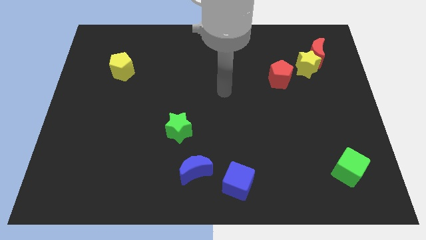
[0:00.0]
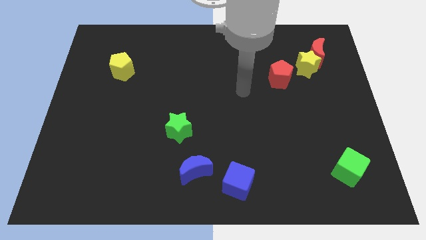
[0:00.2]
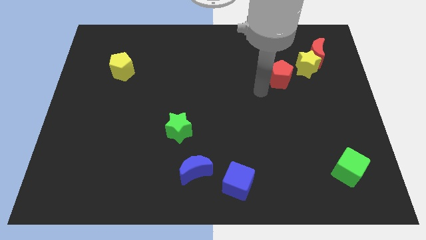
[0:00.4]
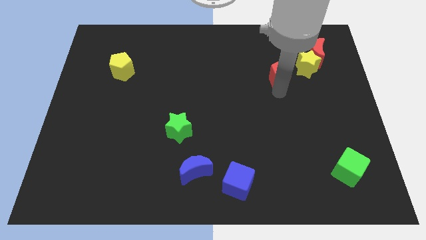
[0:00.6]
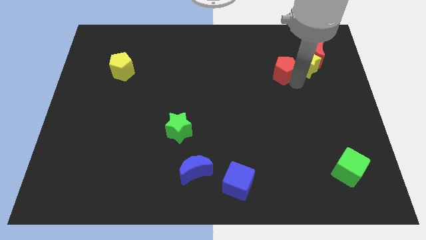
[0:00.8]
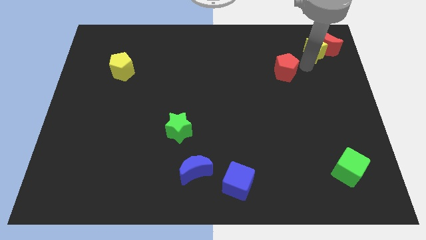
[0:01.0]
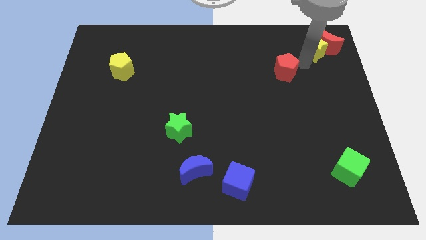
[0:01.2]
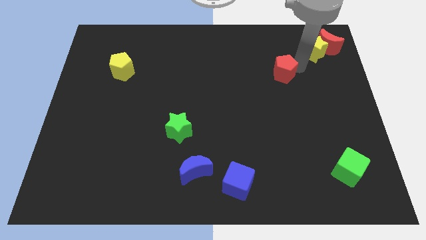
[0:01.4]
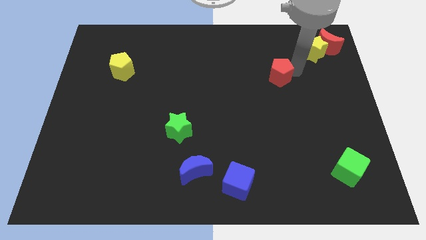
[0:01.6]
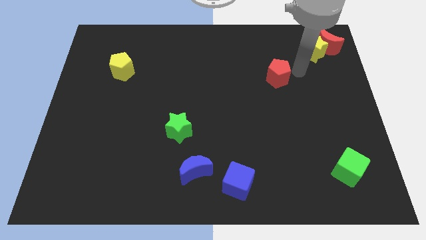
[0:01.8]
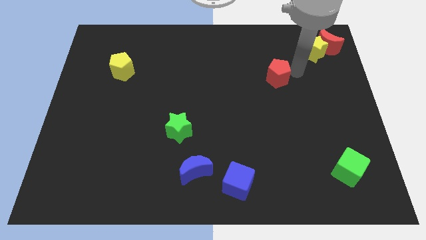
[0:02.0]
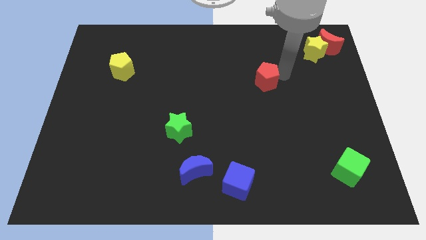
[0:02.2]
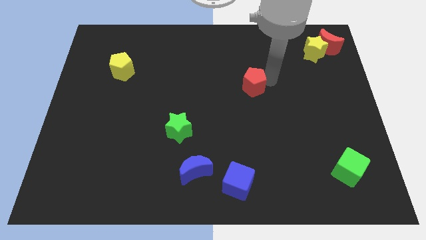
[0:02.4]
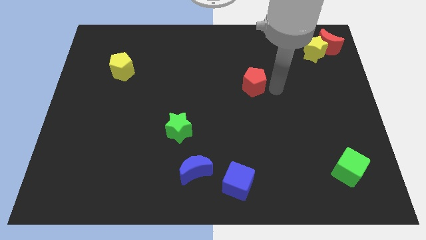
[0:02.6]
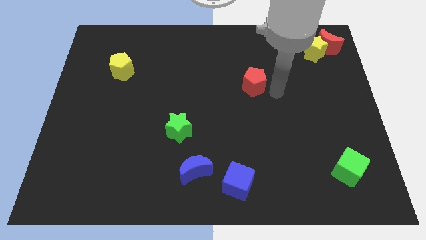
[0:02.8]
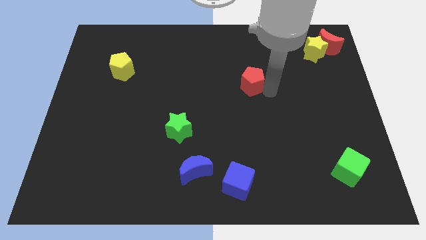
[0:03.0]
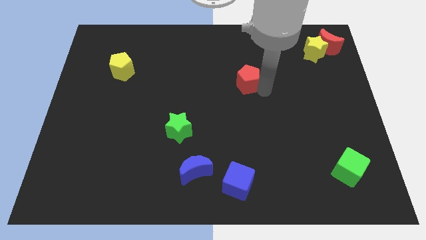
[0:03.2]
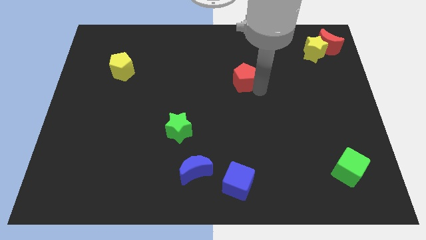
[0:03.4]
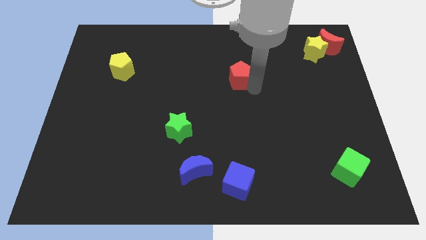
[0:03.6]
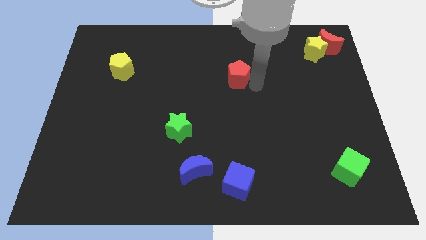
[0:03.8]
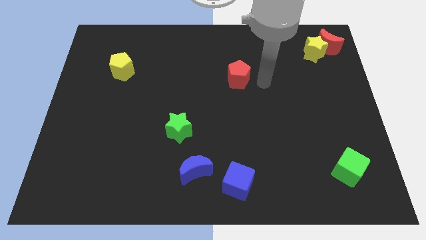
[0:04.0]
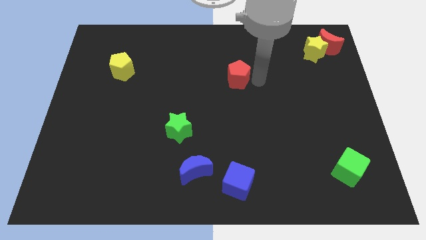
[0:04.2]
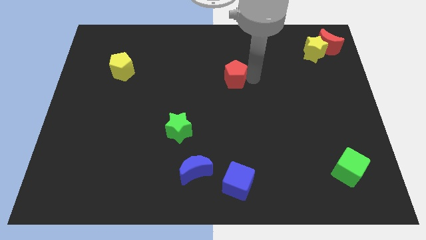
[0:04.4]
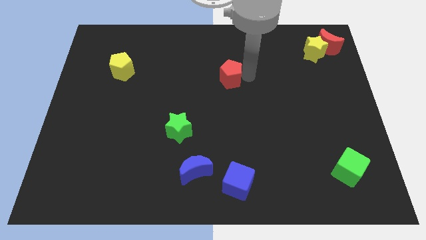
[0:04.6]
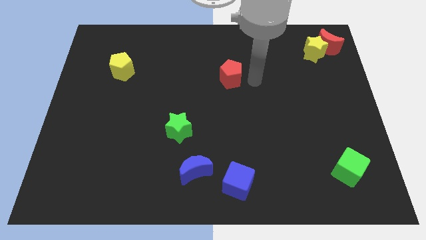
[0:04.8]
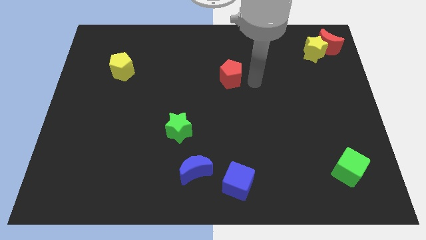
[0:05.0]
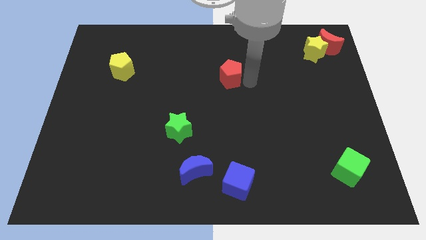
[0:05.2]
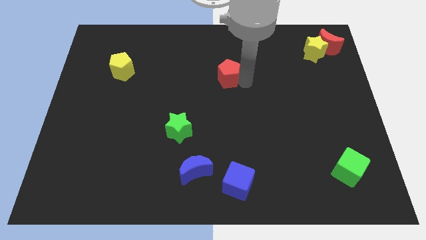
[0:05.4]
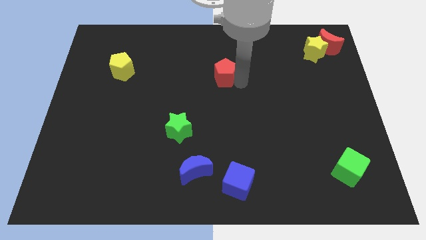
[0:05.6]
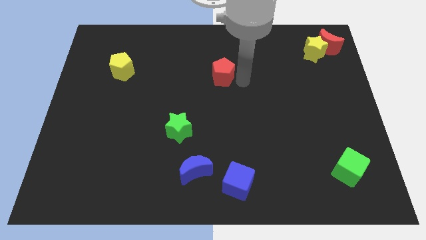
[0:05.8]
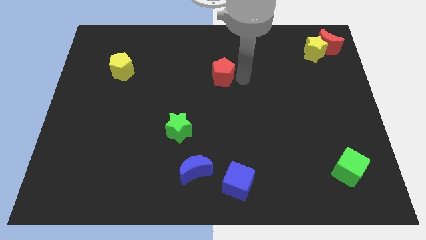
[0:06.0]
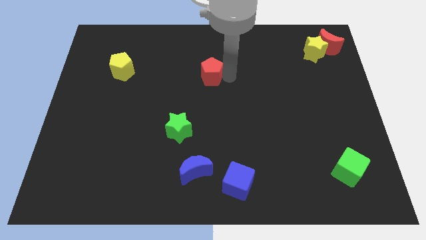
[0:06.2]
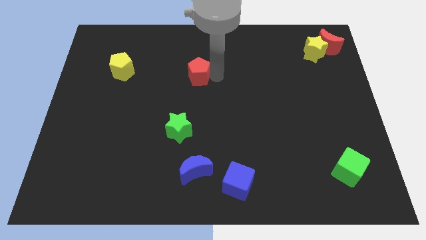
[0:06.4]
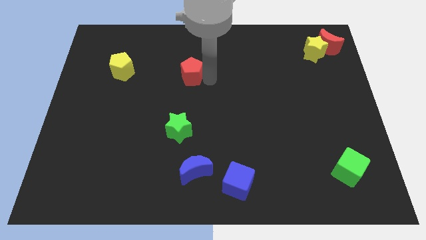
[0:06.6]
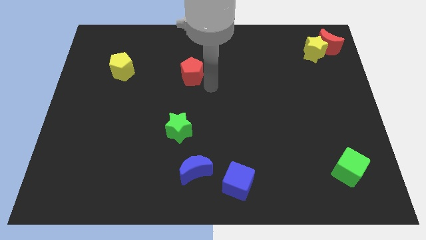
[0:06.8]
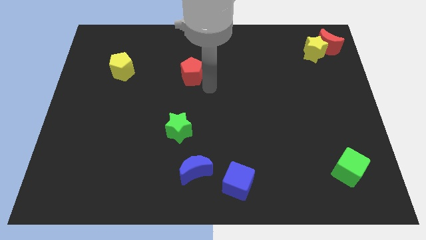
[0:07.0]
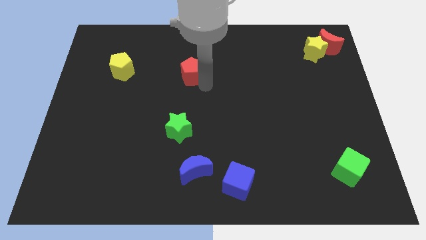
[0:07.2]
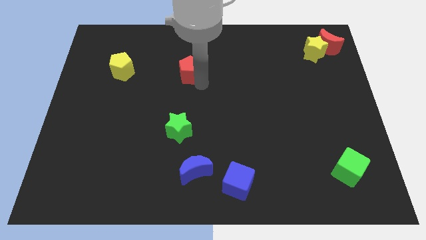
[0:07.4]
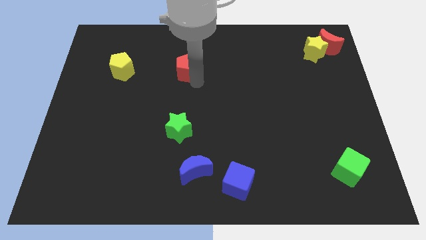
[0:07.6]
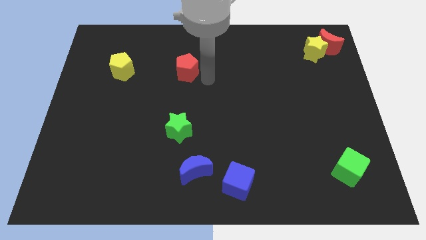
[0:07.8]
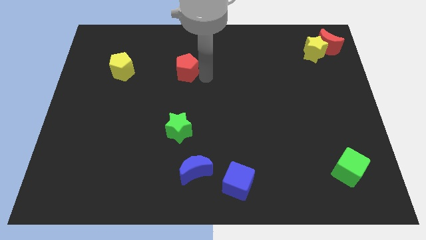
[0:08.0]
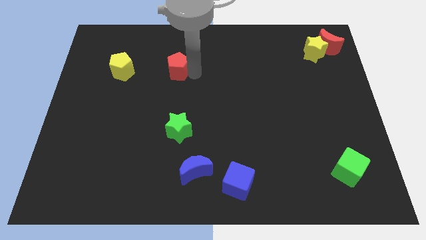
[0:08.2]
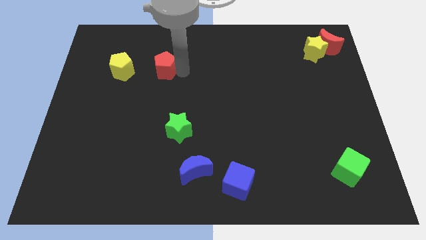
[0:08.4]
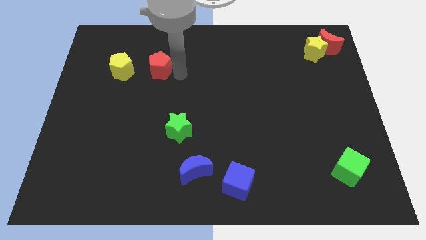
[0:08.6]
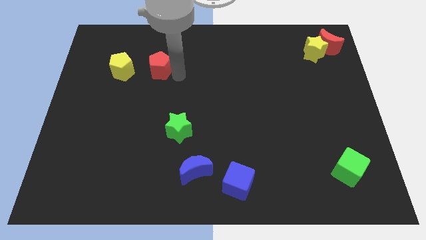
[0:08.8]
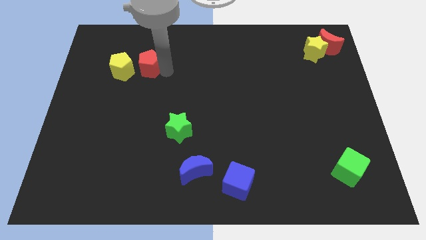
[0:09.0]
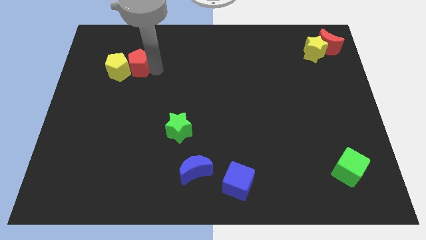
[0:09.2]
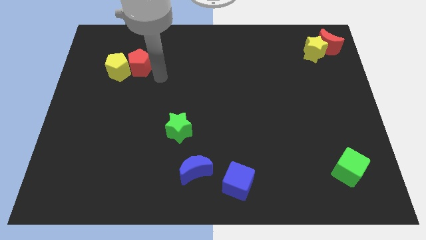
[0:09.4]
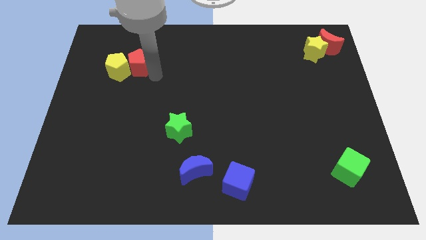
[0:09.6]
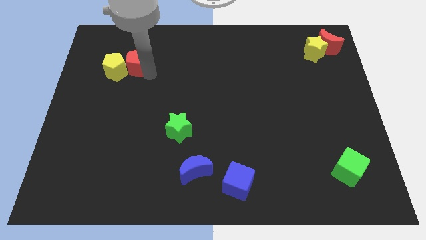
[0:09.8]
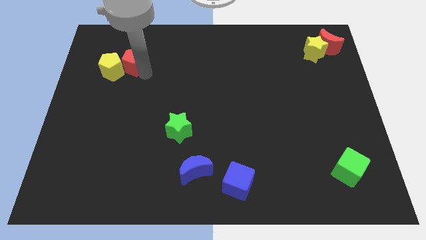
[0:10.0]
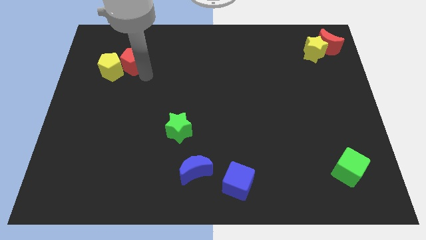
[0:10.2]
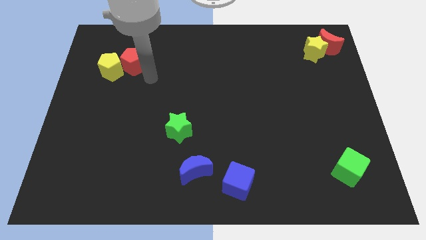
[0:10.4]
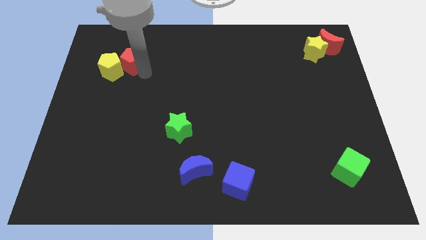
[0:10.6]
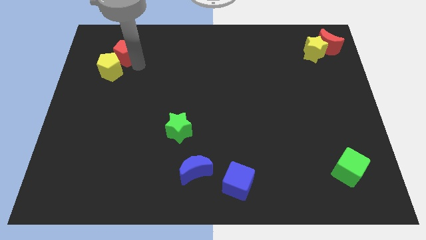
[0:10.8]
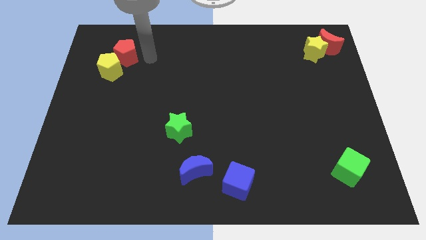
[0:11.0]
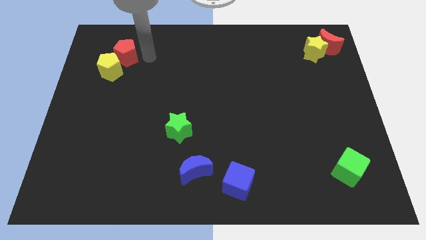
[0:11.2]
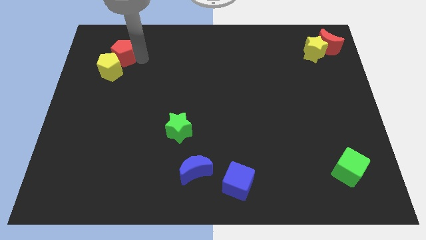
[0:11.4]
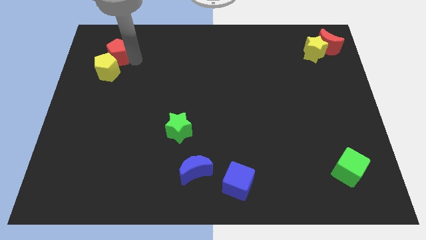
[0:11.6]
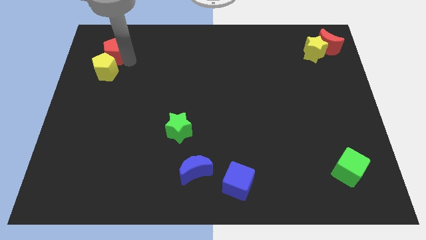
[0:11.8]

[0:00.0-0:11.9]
push the red pentagon to the top left side of the yellow pentagon

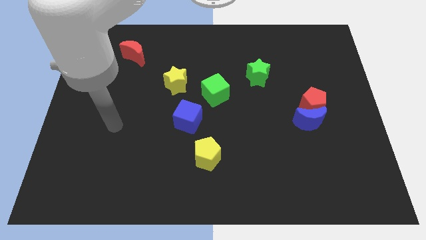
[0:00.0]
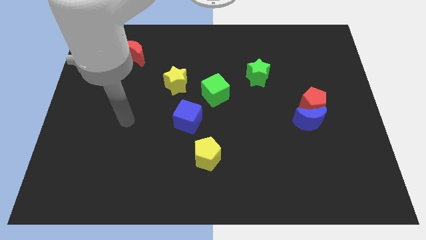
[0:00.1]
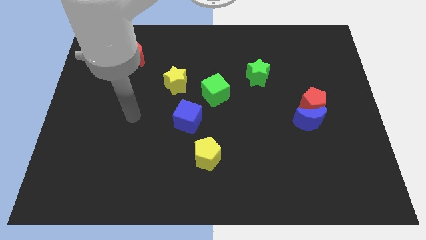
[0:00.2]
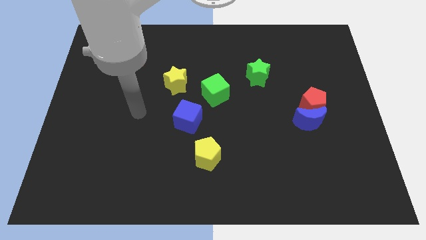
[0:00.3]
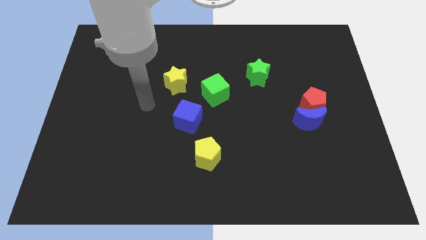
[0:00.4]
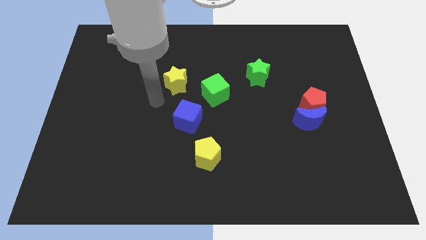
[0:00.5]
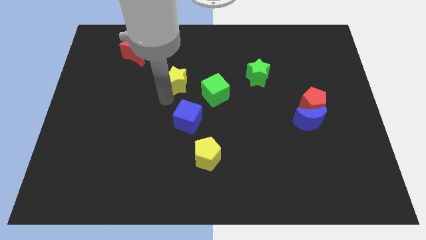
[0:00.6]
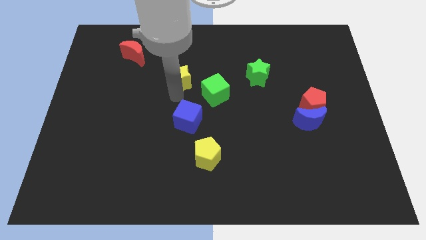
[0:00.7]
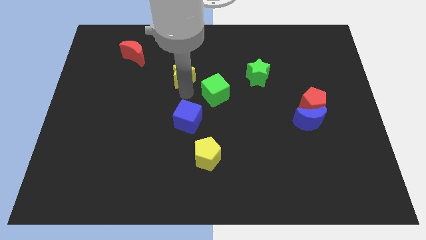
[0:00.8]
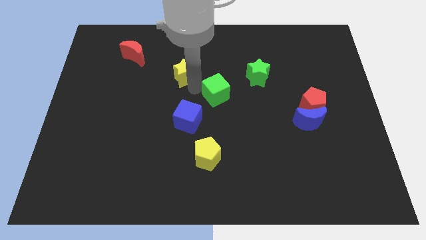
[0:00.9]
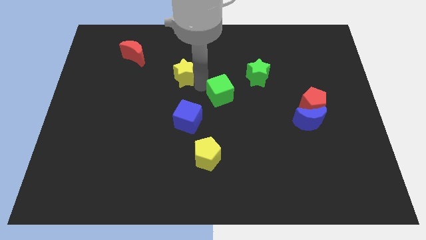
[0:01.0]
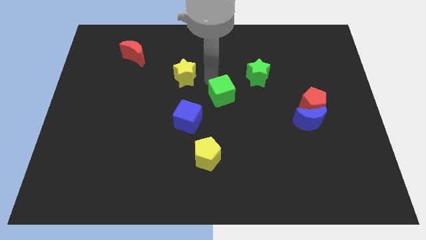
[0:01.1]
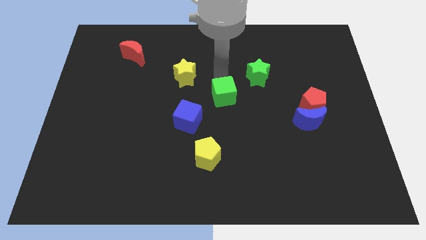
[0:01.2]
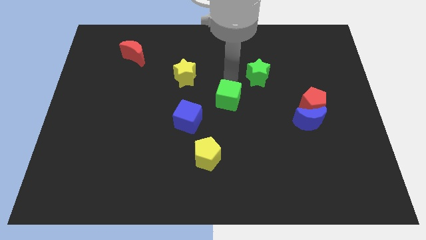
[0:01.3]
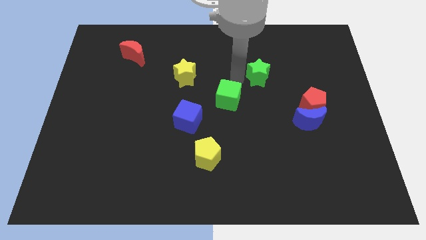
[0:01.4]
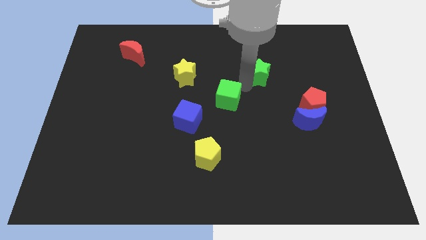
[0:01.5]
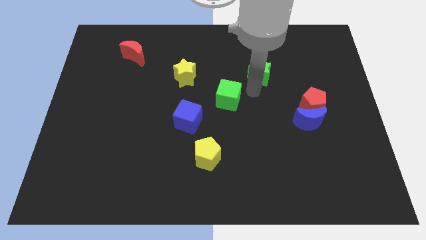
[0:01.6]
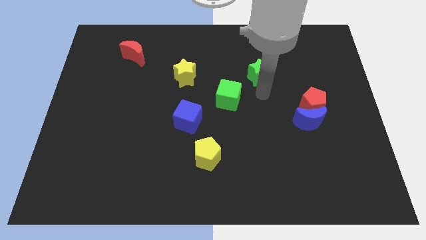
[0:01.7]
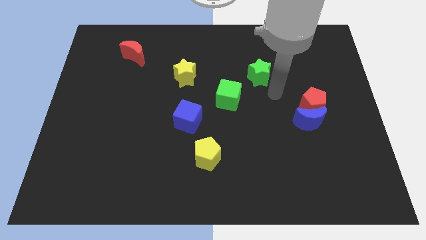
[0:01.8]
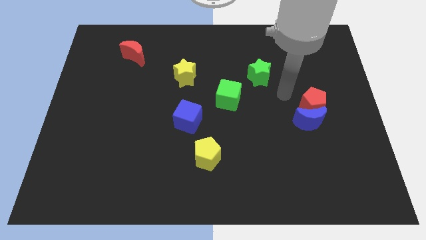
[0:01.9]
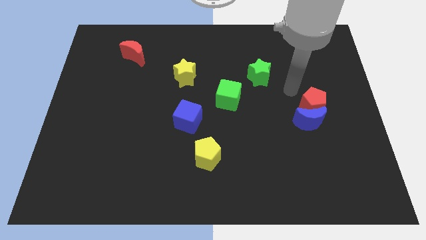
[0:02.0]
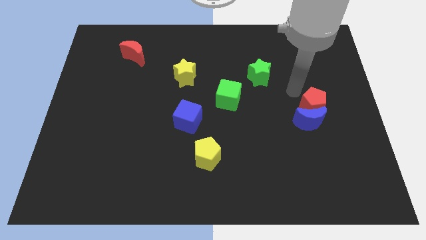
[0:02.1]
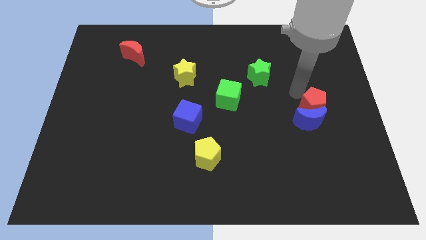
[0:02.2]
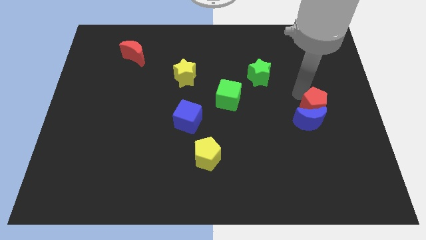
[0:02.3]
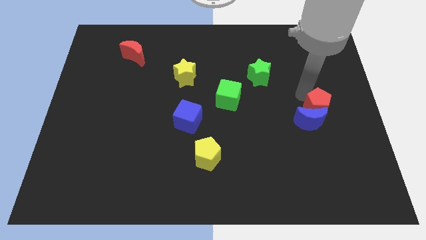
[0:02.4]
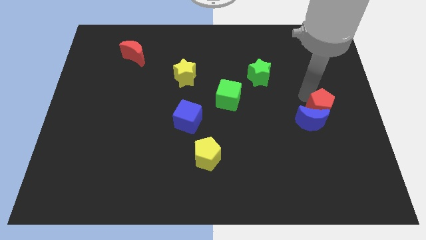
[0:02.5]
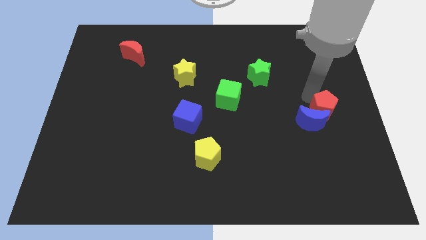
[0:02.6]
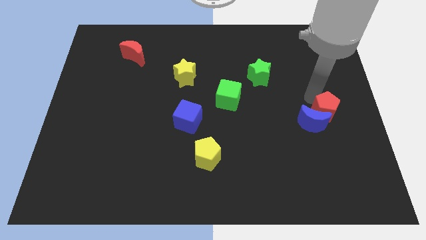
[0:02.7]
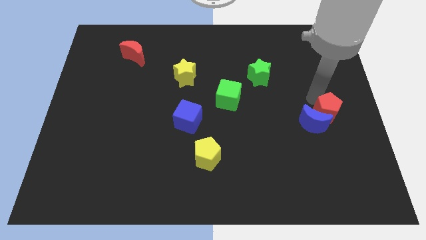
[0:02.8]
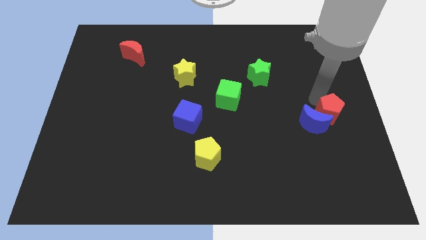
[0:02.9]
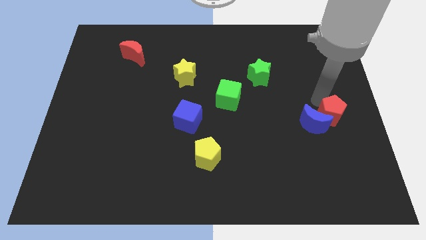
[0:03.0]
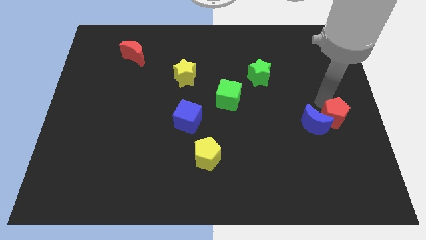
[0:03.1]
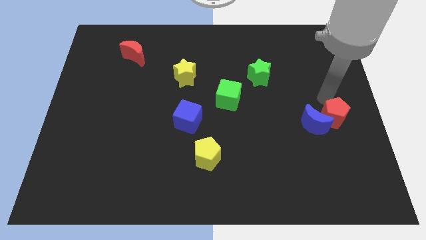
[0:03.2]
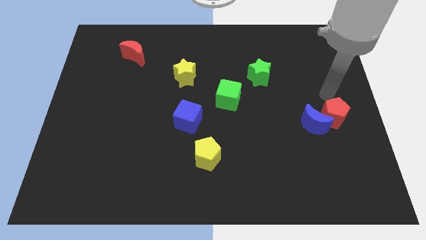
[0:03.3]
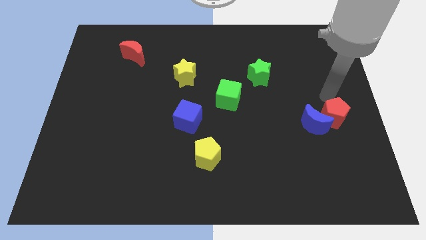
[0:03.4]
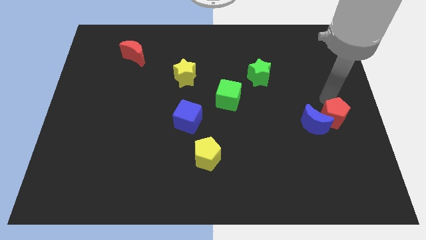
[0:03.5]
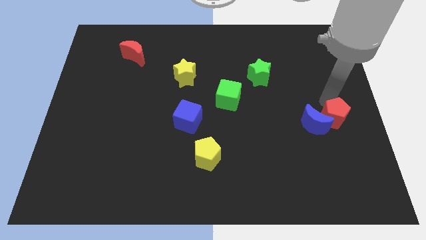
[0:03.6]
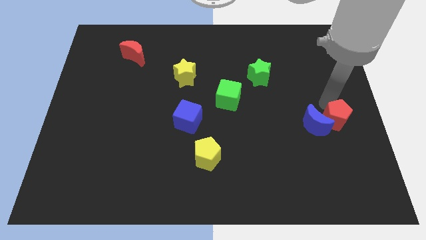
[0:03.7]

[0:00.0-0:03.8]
move the red pentagon to the bottom right of the blue moon
